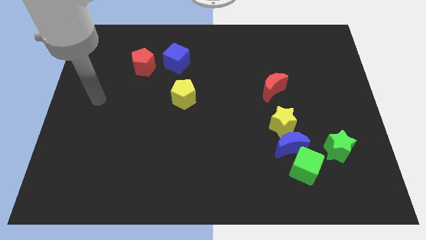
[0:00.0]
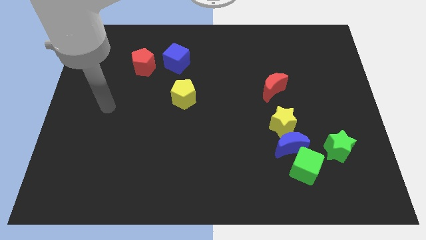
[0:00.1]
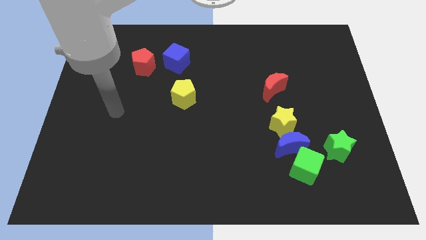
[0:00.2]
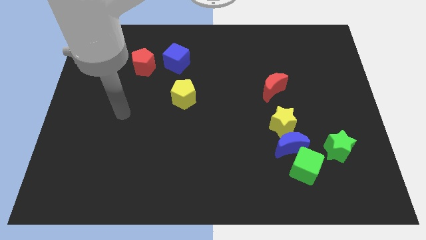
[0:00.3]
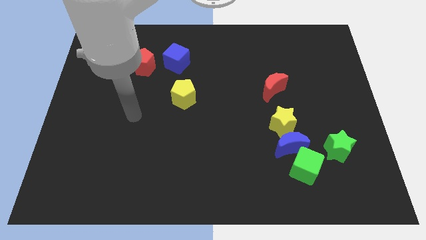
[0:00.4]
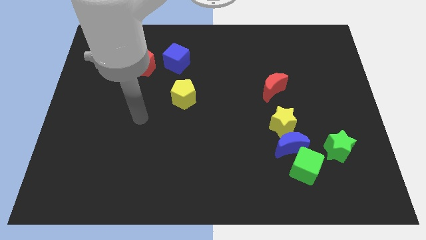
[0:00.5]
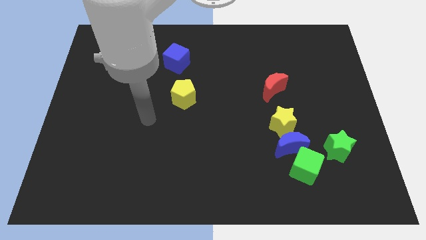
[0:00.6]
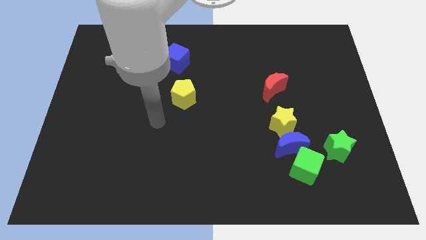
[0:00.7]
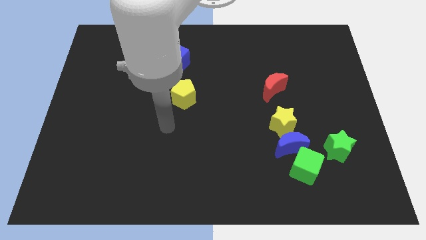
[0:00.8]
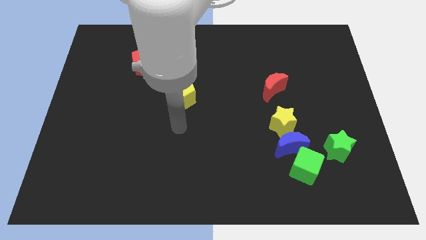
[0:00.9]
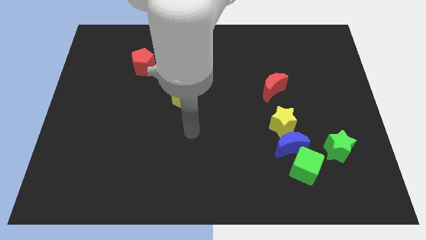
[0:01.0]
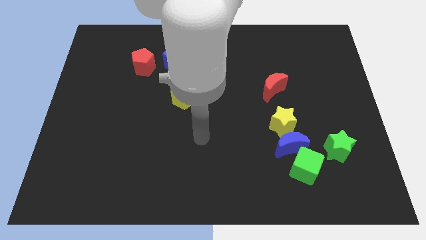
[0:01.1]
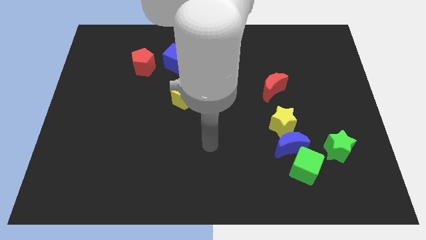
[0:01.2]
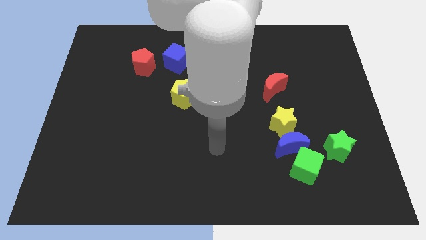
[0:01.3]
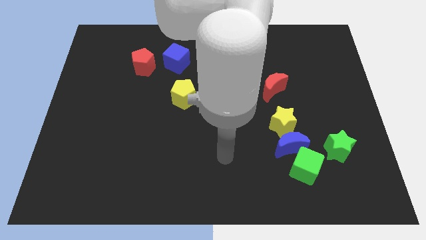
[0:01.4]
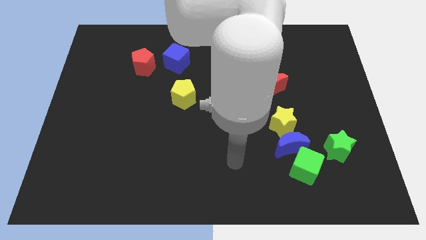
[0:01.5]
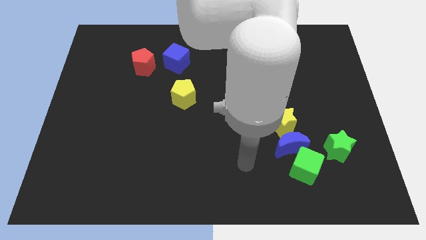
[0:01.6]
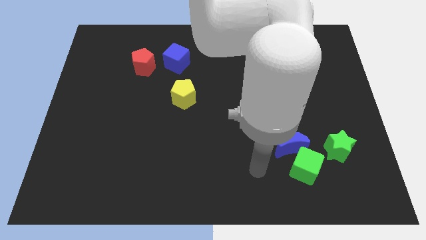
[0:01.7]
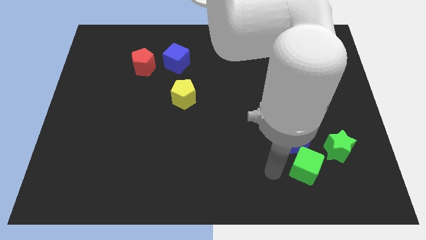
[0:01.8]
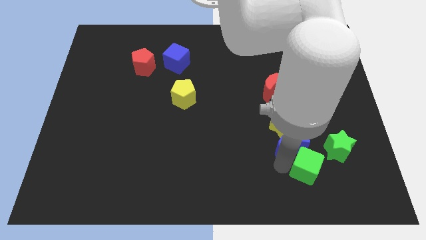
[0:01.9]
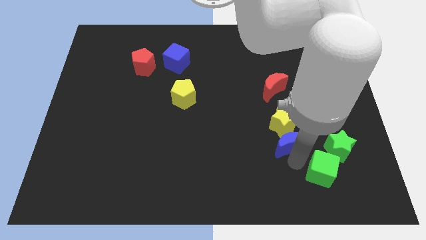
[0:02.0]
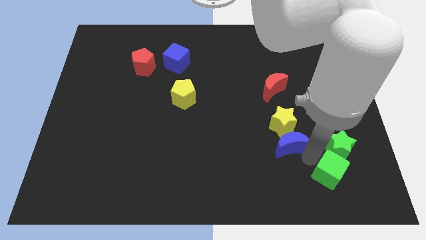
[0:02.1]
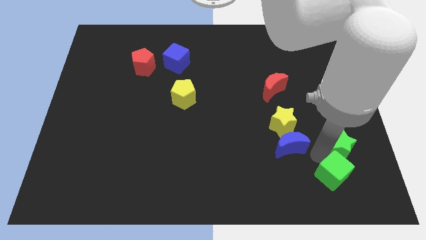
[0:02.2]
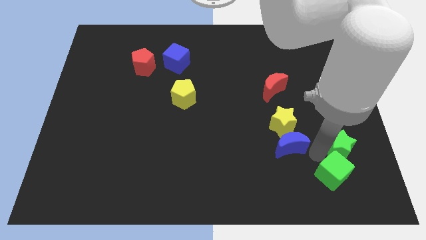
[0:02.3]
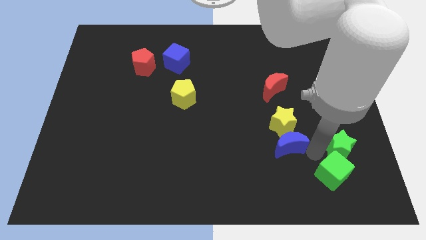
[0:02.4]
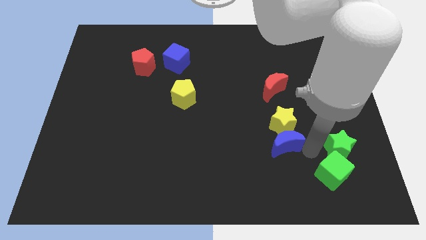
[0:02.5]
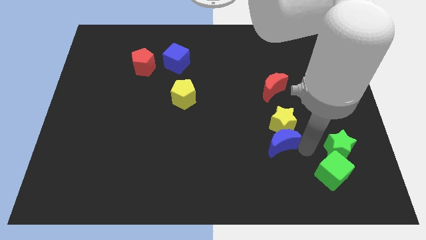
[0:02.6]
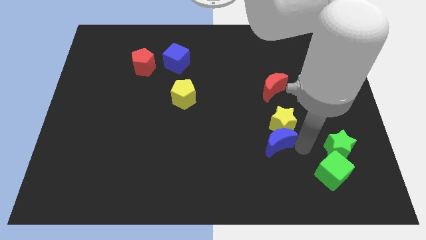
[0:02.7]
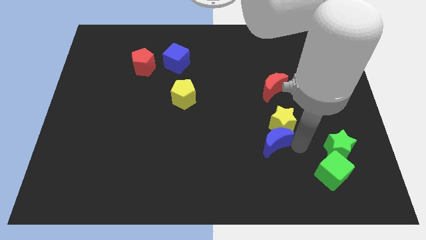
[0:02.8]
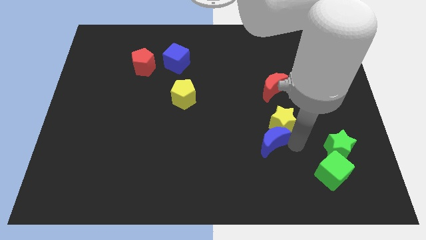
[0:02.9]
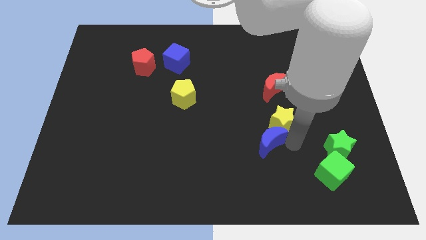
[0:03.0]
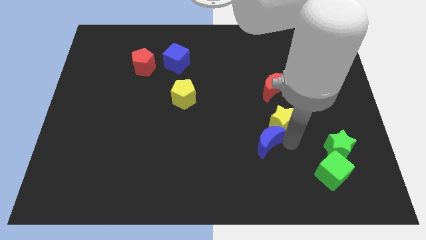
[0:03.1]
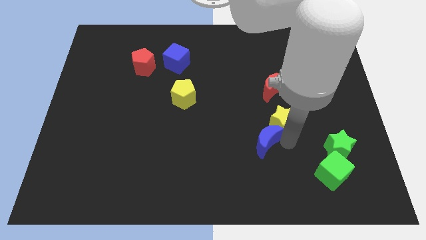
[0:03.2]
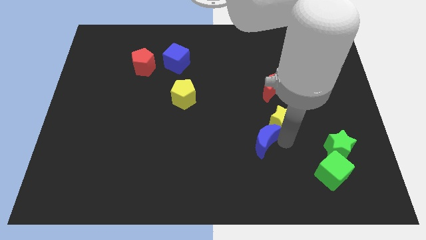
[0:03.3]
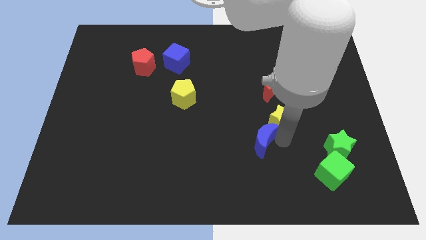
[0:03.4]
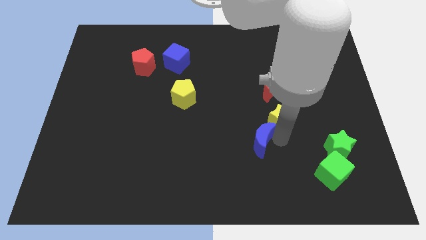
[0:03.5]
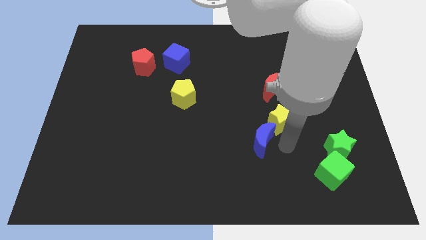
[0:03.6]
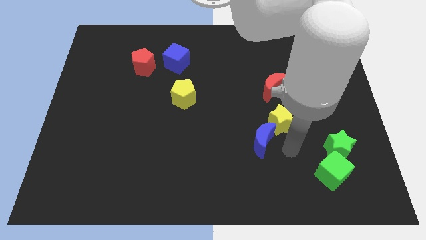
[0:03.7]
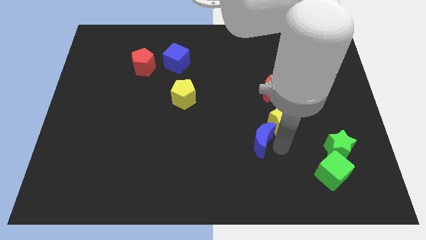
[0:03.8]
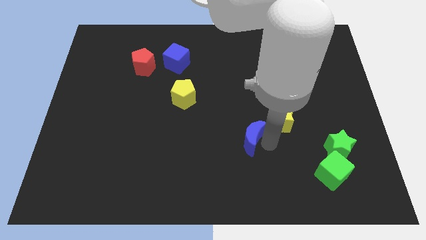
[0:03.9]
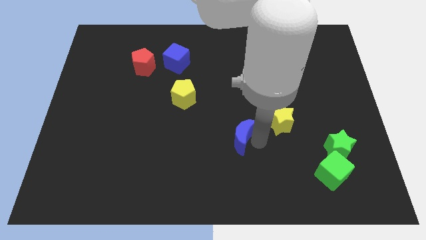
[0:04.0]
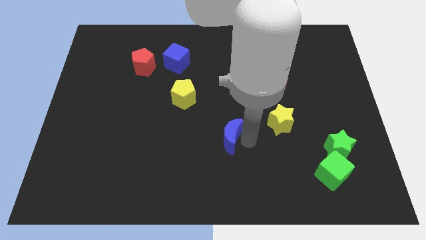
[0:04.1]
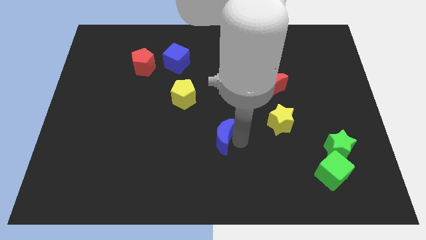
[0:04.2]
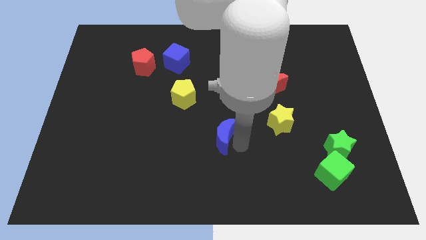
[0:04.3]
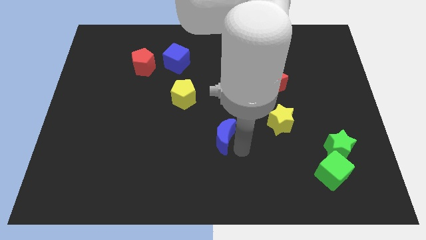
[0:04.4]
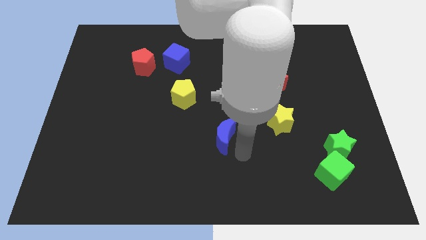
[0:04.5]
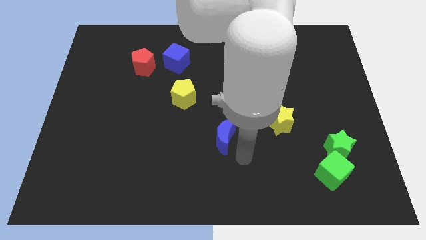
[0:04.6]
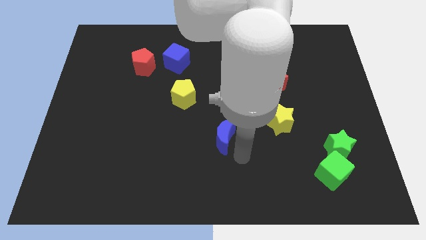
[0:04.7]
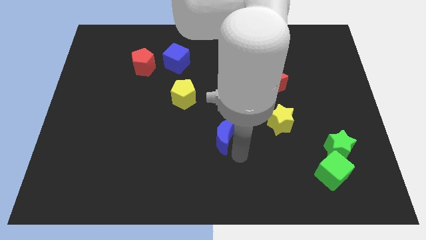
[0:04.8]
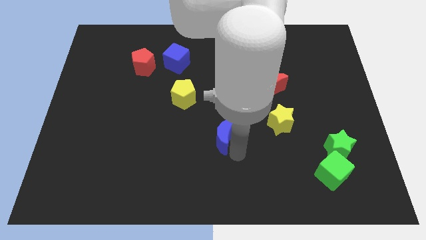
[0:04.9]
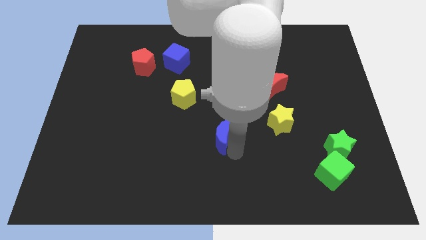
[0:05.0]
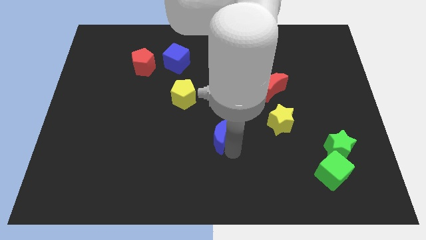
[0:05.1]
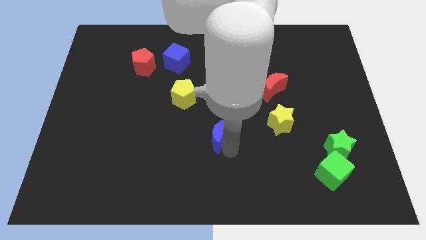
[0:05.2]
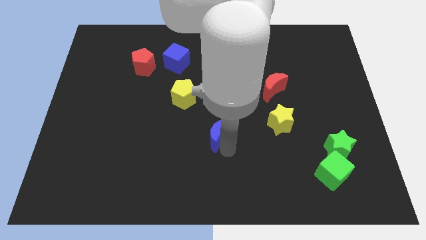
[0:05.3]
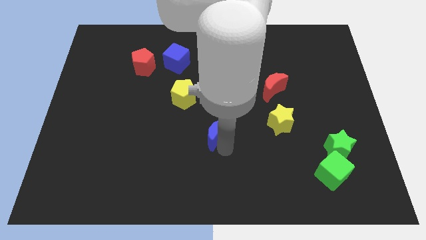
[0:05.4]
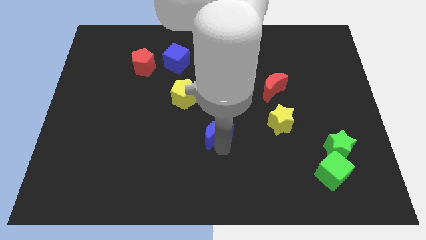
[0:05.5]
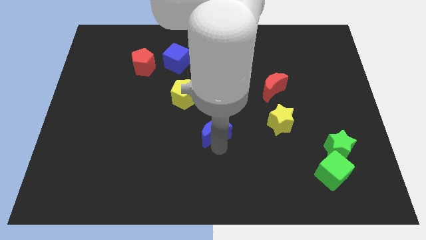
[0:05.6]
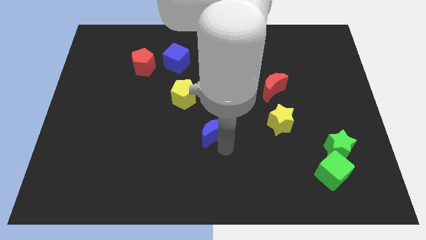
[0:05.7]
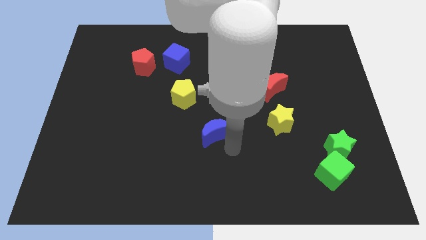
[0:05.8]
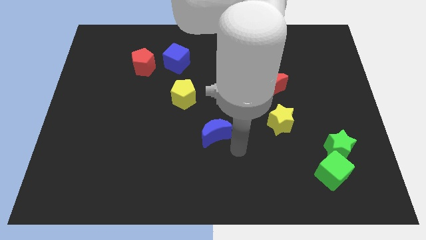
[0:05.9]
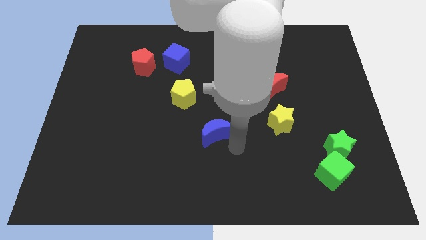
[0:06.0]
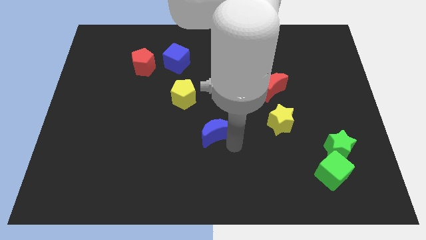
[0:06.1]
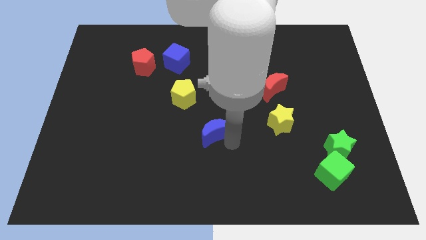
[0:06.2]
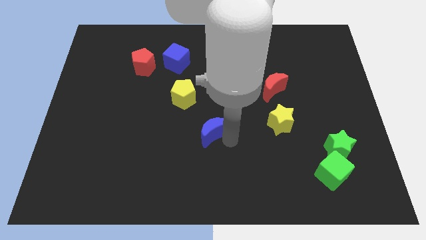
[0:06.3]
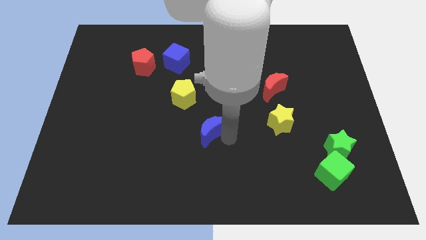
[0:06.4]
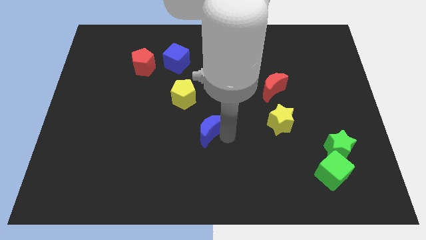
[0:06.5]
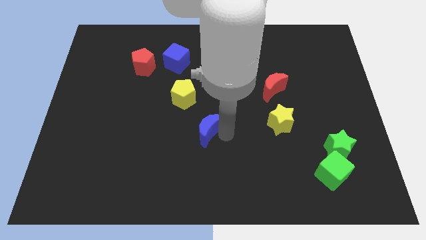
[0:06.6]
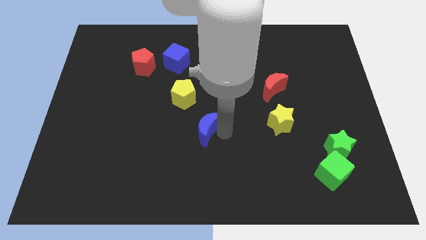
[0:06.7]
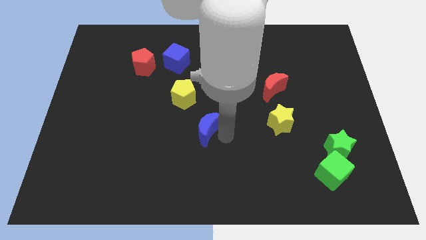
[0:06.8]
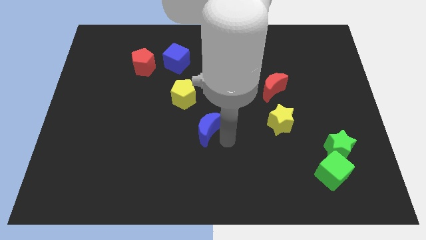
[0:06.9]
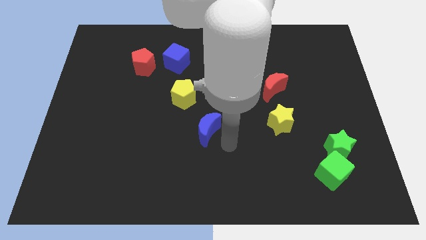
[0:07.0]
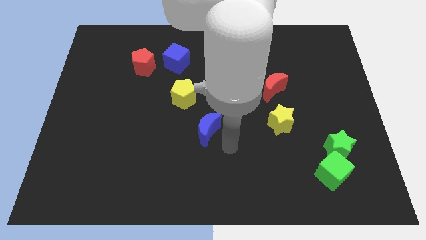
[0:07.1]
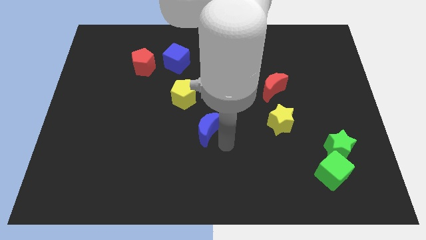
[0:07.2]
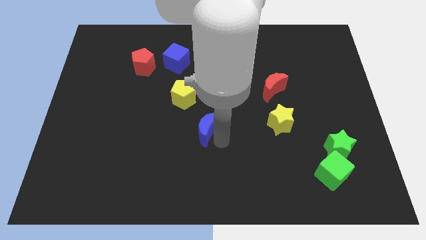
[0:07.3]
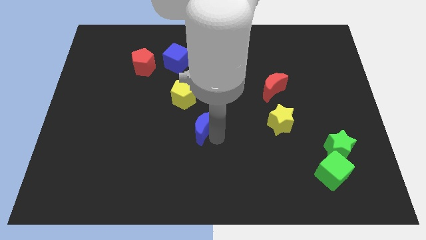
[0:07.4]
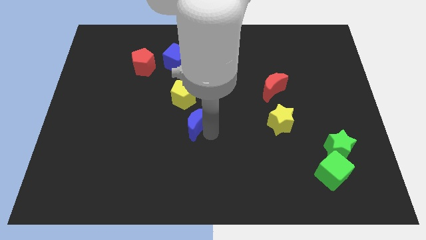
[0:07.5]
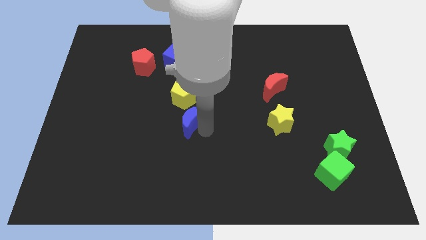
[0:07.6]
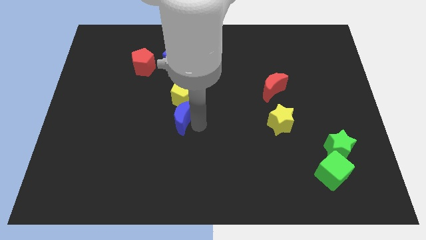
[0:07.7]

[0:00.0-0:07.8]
slide the blue moon to the bottom left side of the yellow pentagon
